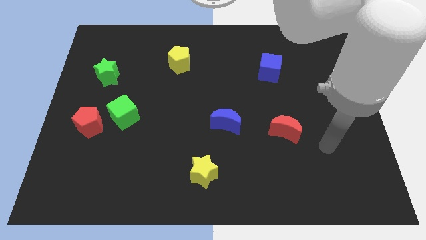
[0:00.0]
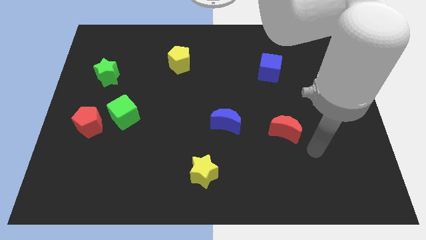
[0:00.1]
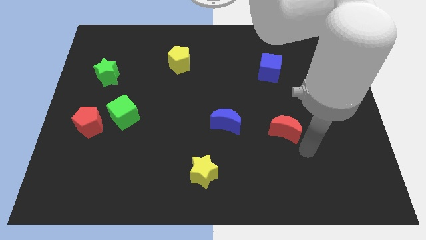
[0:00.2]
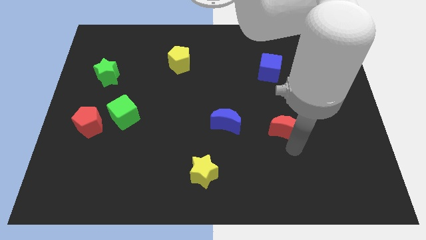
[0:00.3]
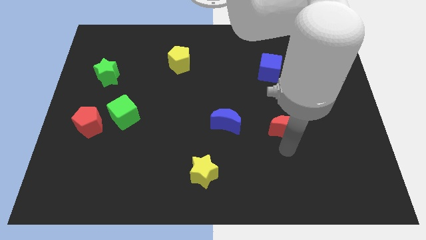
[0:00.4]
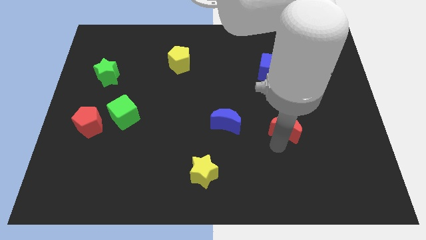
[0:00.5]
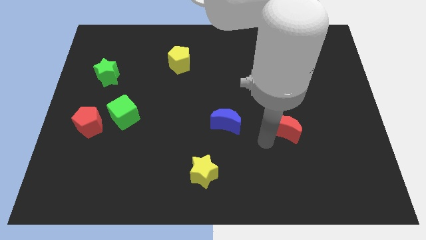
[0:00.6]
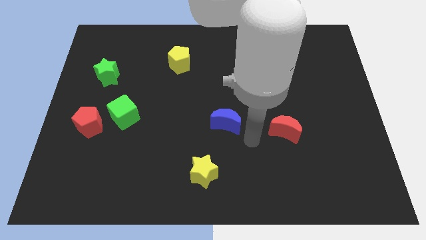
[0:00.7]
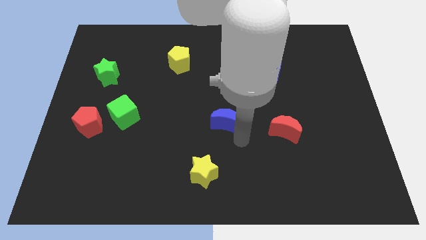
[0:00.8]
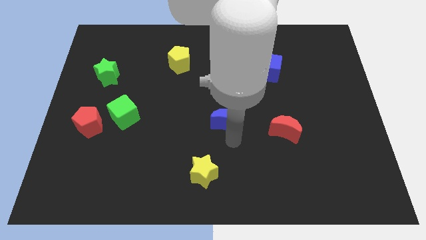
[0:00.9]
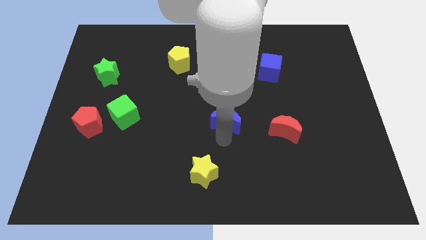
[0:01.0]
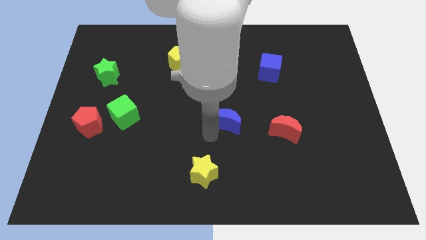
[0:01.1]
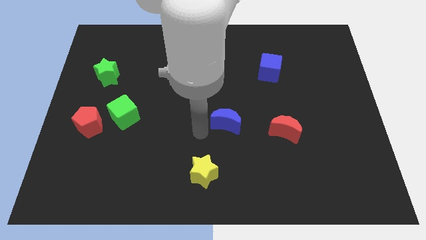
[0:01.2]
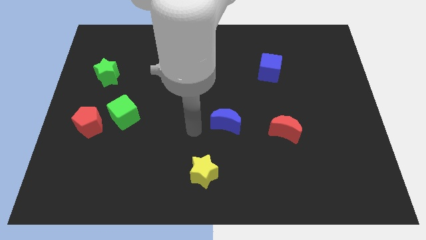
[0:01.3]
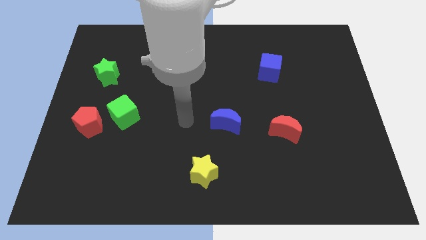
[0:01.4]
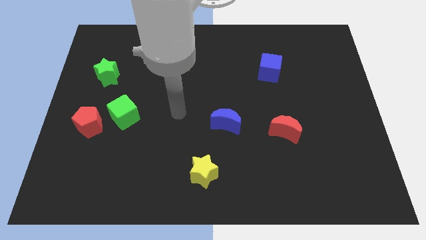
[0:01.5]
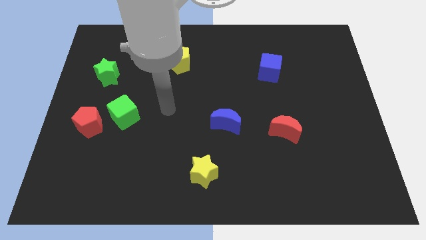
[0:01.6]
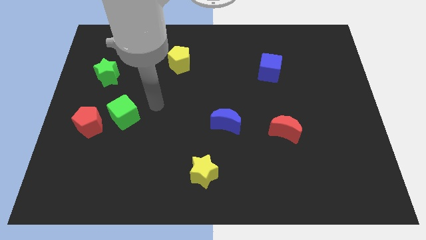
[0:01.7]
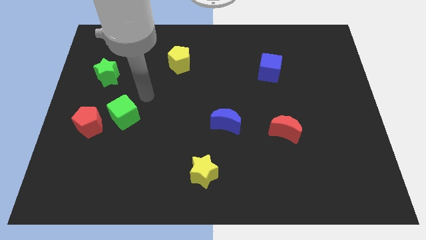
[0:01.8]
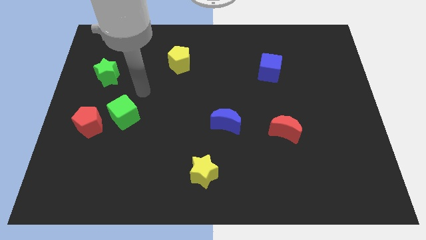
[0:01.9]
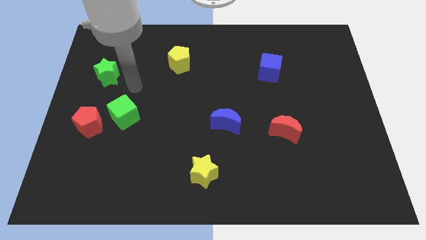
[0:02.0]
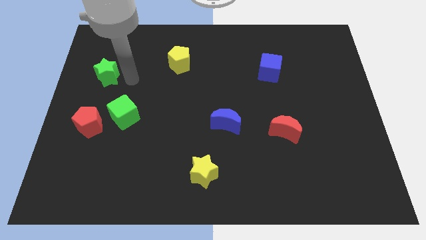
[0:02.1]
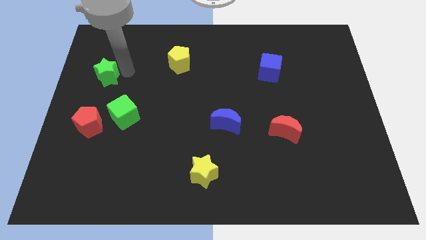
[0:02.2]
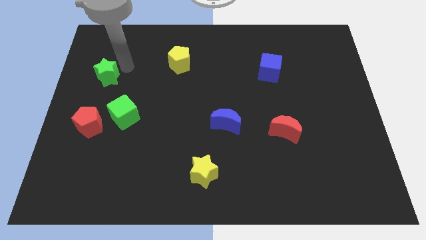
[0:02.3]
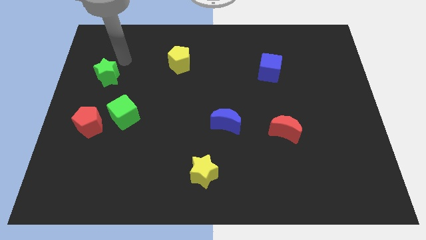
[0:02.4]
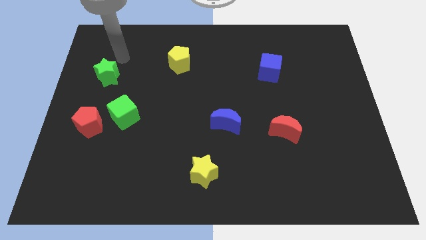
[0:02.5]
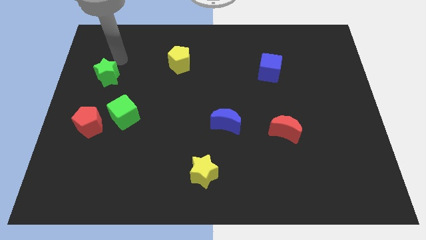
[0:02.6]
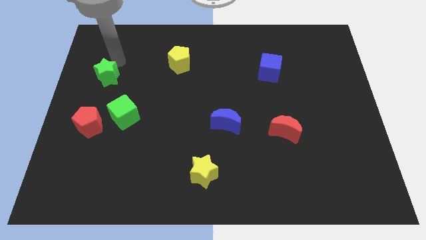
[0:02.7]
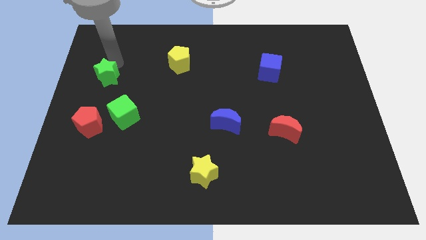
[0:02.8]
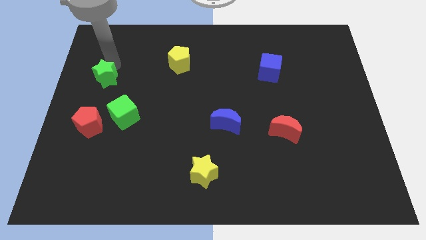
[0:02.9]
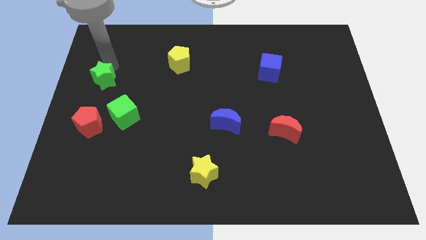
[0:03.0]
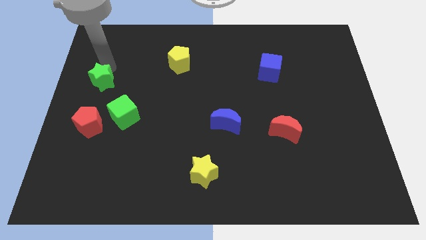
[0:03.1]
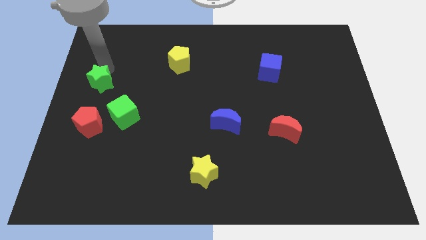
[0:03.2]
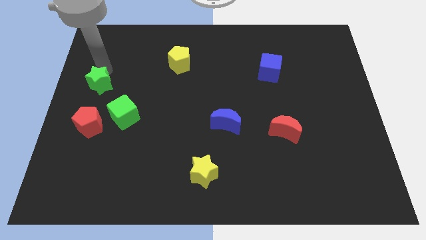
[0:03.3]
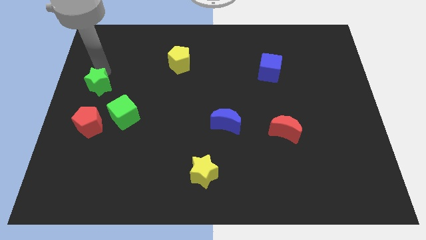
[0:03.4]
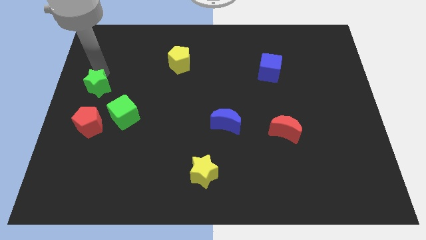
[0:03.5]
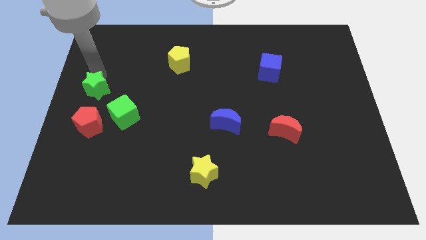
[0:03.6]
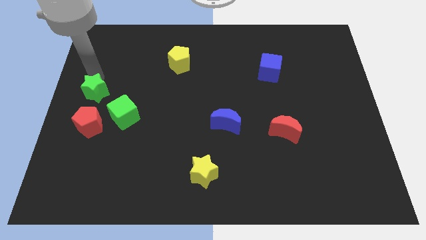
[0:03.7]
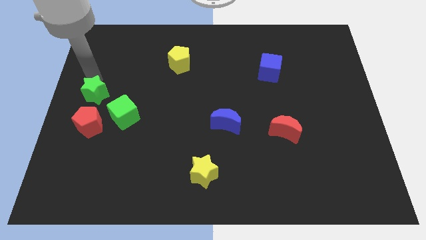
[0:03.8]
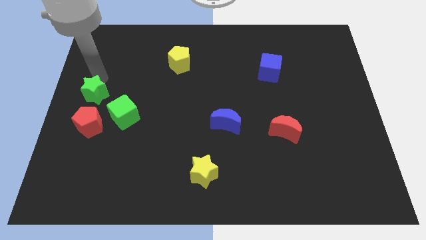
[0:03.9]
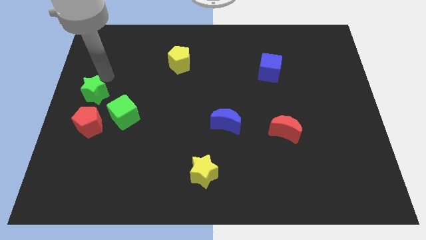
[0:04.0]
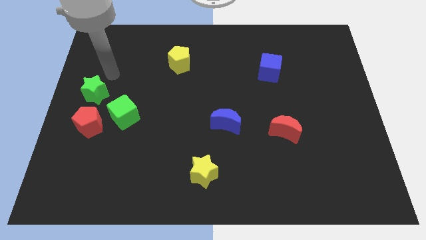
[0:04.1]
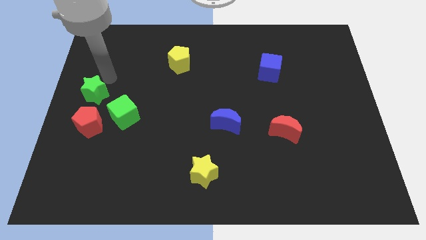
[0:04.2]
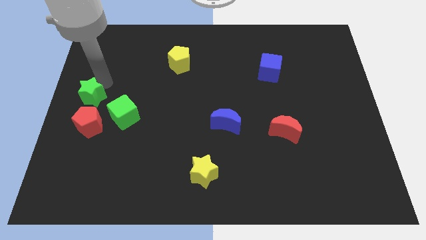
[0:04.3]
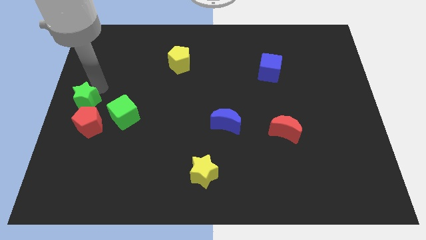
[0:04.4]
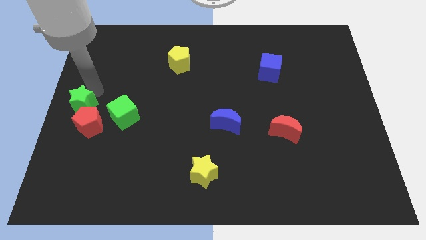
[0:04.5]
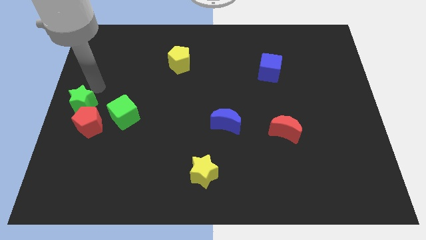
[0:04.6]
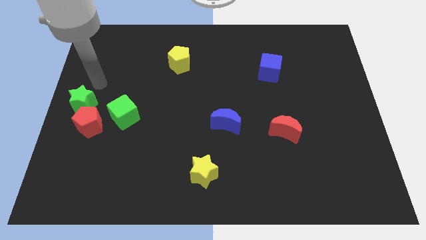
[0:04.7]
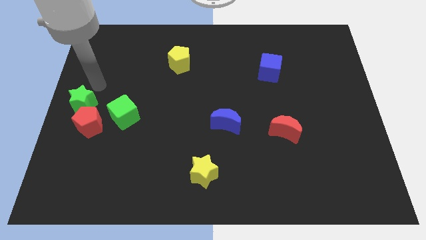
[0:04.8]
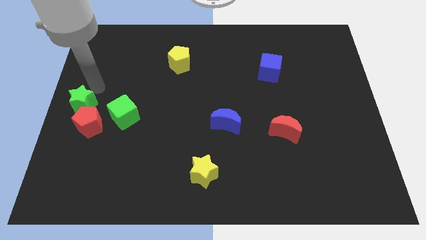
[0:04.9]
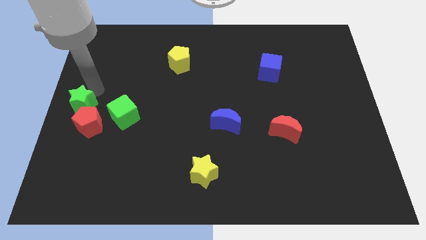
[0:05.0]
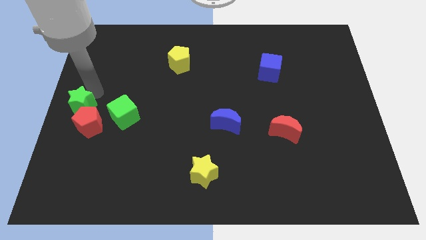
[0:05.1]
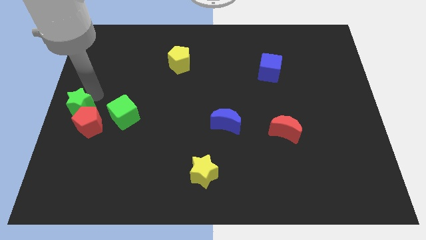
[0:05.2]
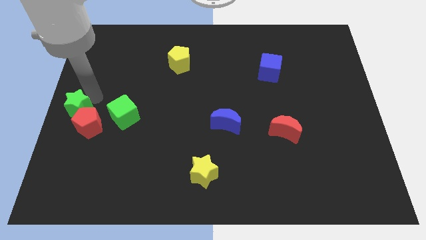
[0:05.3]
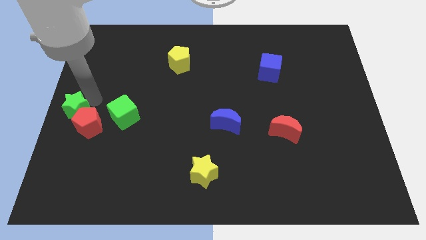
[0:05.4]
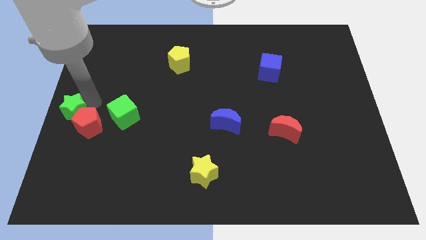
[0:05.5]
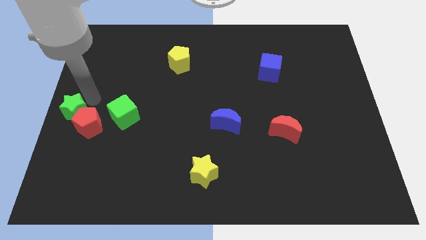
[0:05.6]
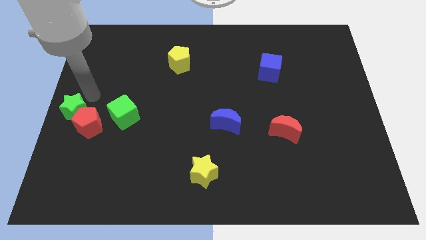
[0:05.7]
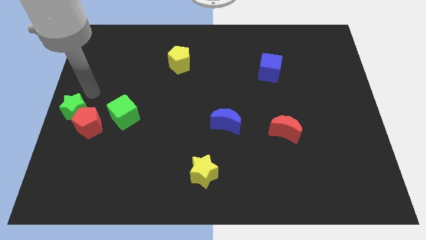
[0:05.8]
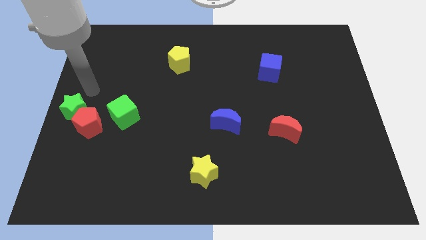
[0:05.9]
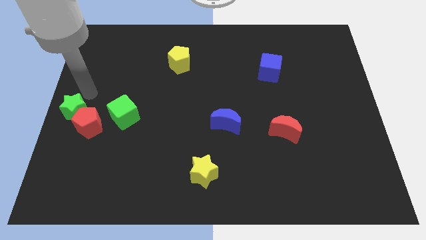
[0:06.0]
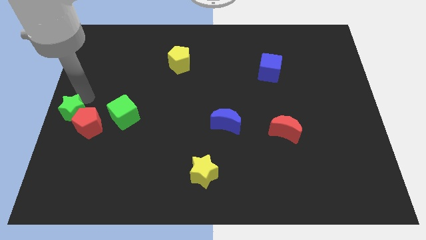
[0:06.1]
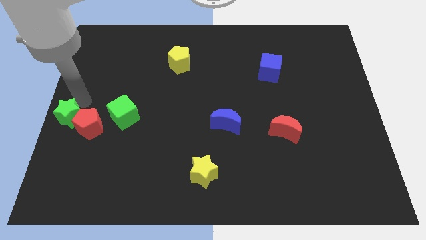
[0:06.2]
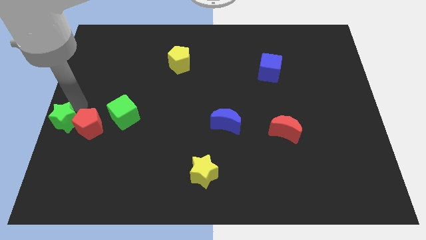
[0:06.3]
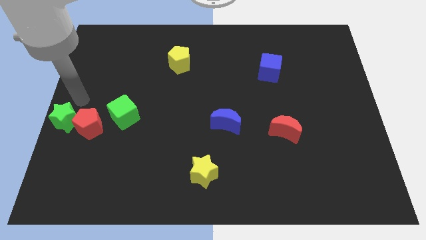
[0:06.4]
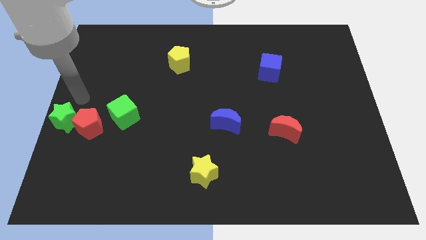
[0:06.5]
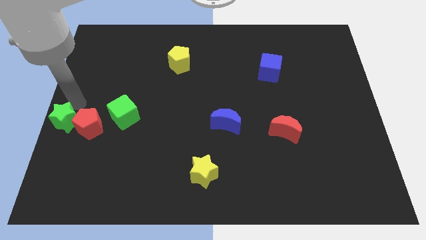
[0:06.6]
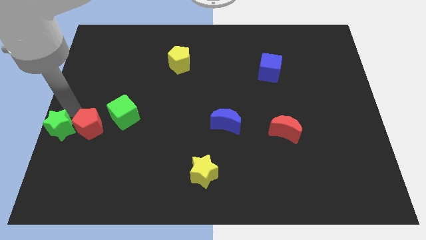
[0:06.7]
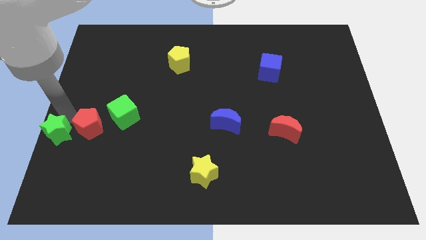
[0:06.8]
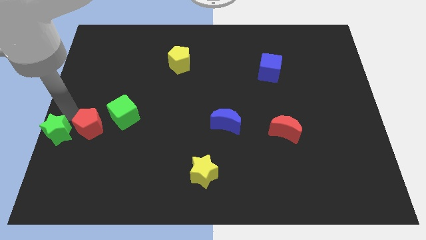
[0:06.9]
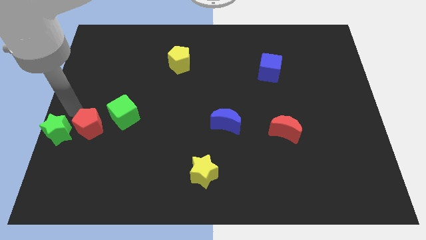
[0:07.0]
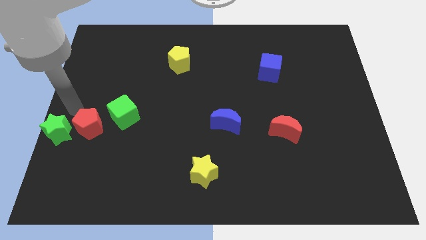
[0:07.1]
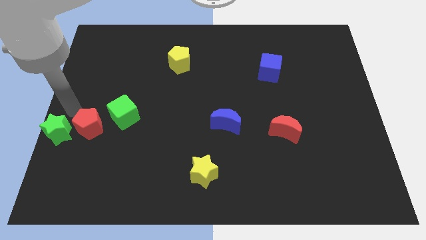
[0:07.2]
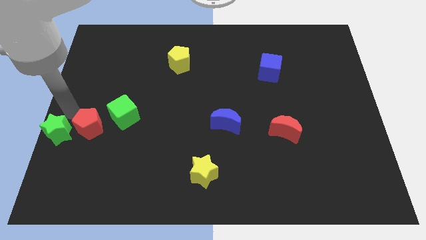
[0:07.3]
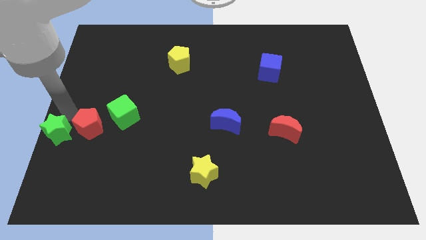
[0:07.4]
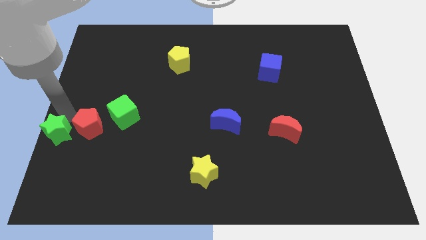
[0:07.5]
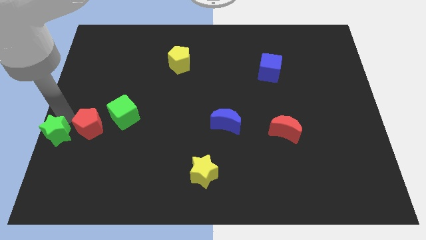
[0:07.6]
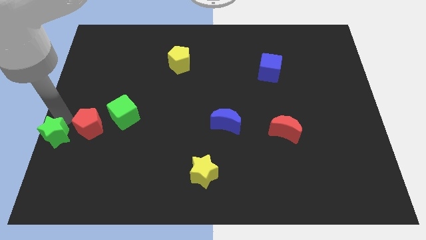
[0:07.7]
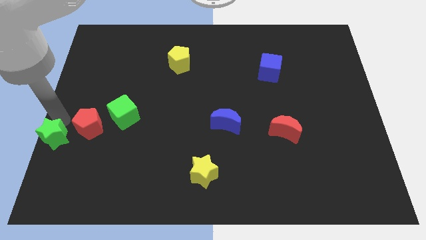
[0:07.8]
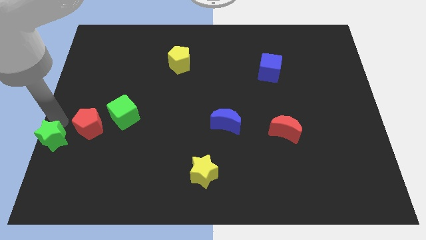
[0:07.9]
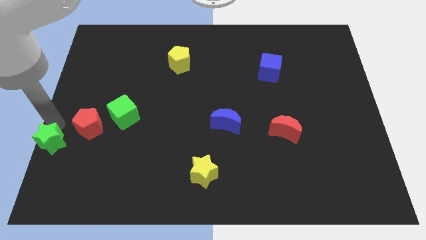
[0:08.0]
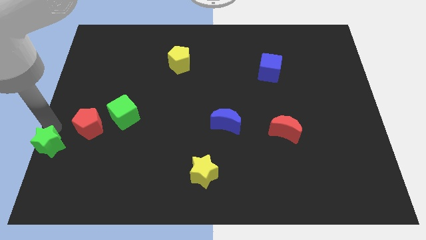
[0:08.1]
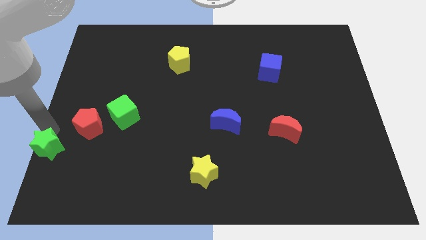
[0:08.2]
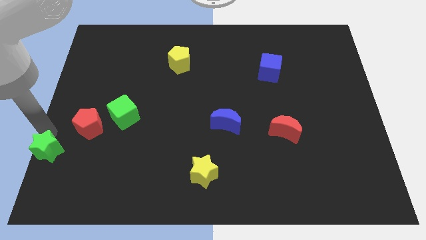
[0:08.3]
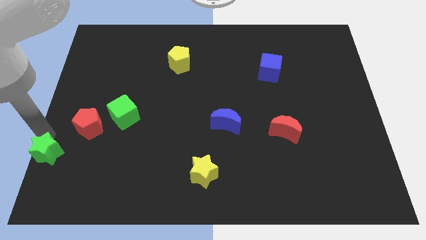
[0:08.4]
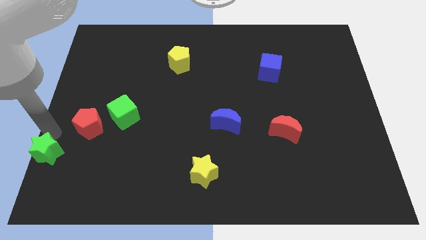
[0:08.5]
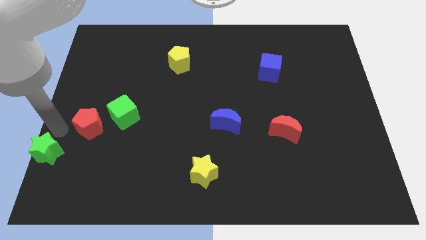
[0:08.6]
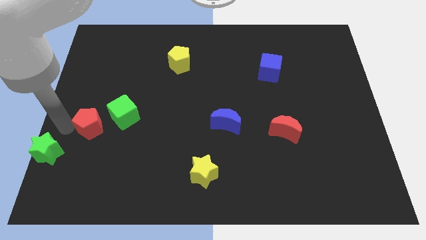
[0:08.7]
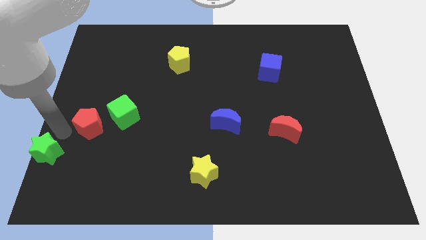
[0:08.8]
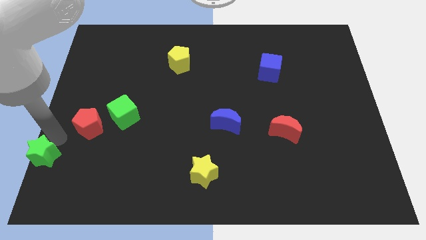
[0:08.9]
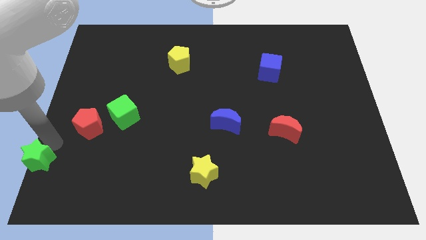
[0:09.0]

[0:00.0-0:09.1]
slide the green star to the lower left corner
